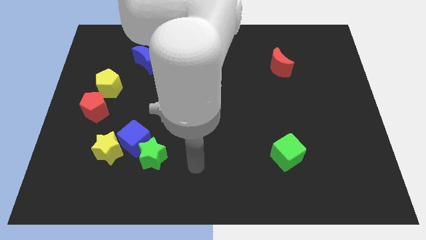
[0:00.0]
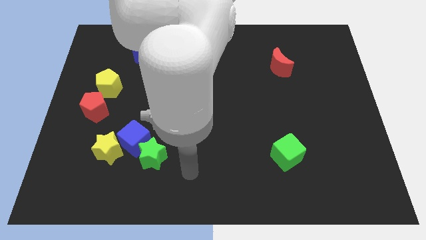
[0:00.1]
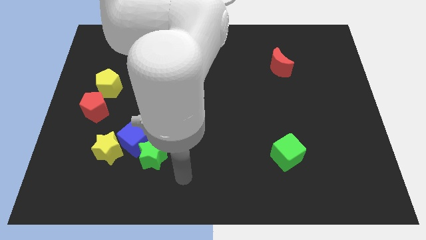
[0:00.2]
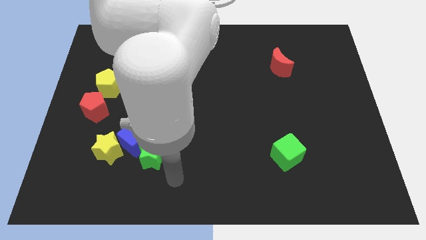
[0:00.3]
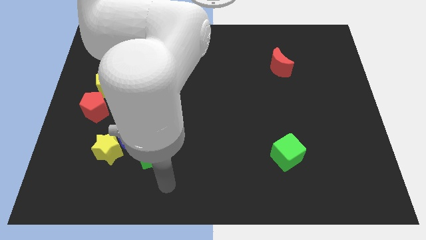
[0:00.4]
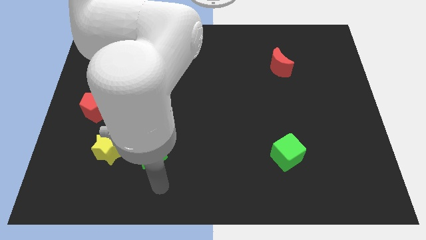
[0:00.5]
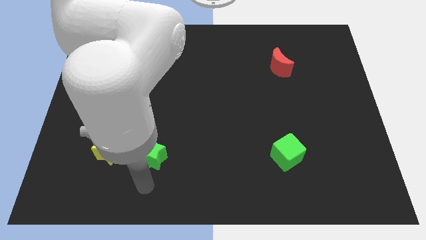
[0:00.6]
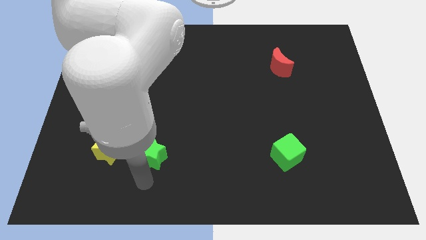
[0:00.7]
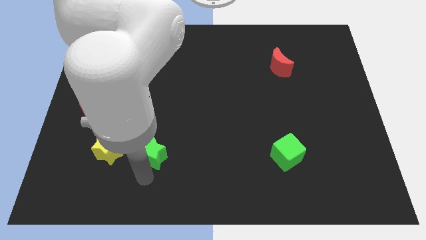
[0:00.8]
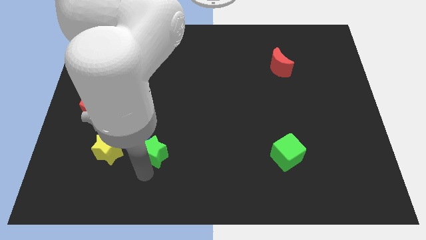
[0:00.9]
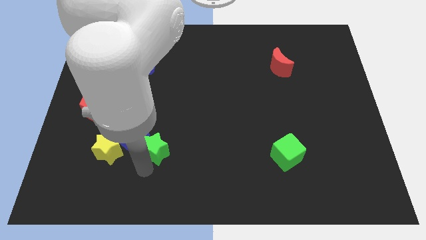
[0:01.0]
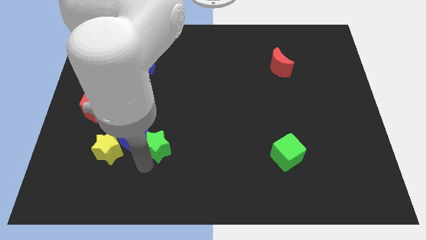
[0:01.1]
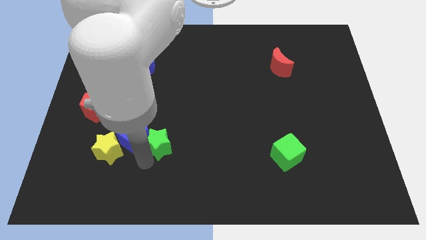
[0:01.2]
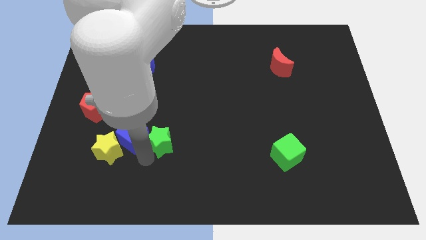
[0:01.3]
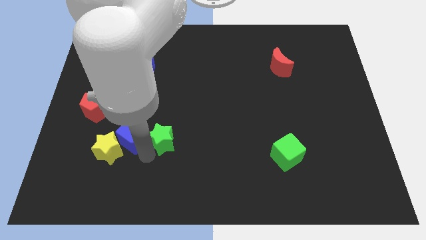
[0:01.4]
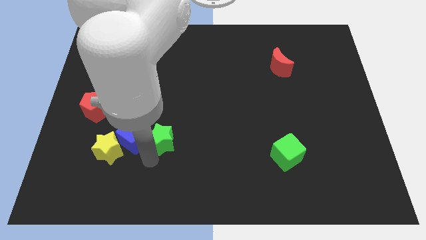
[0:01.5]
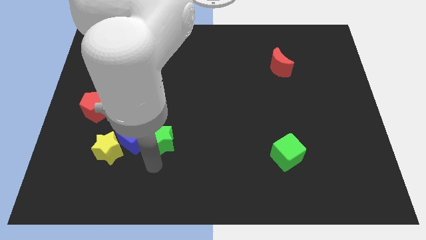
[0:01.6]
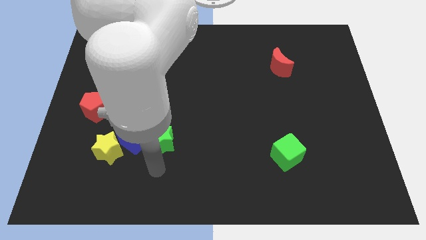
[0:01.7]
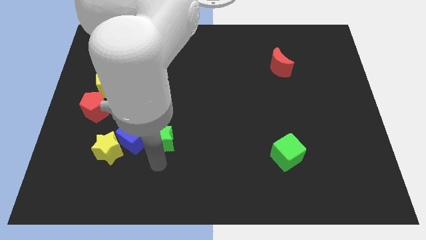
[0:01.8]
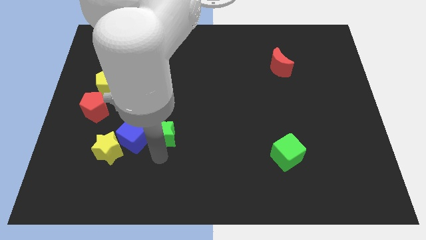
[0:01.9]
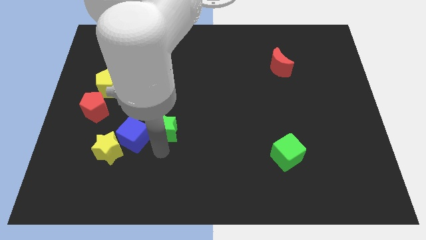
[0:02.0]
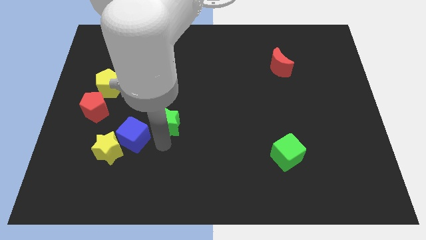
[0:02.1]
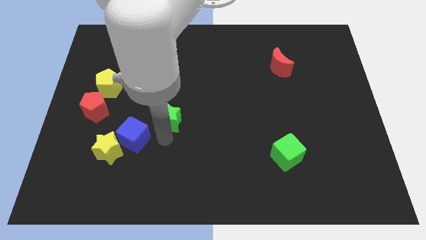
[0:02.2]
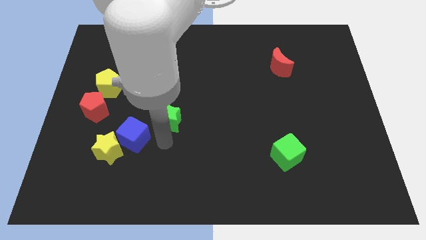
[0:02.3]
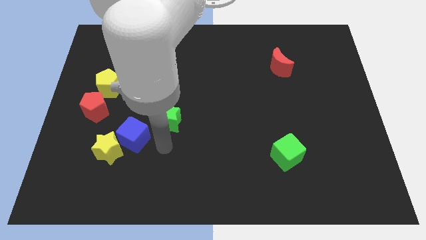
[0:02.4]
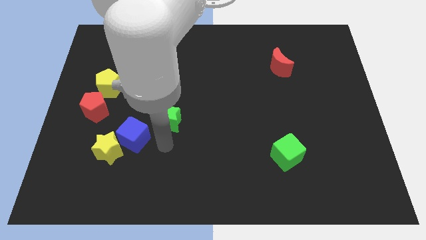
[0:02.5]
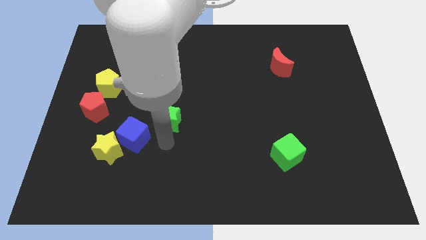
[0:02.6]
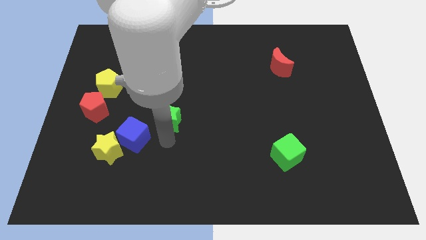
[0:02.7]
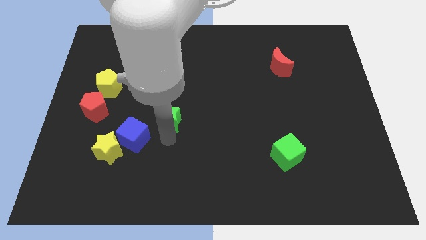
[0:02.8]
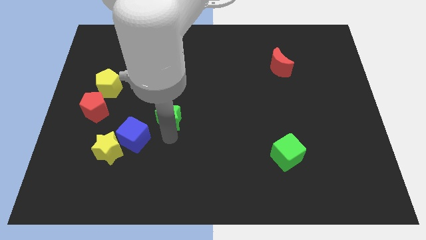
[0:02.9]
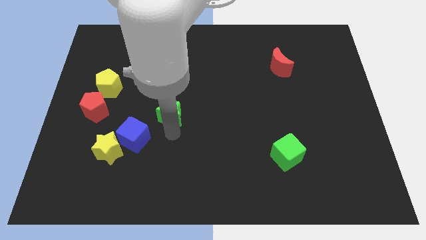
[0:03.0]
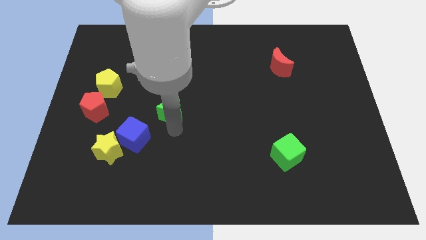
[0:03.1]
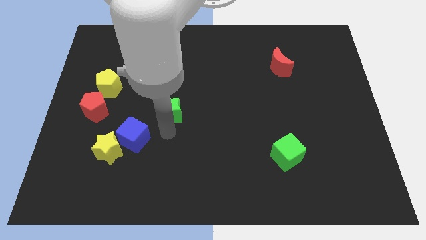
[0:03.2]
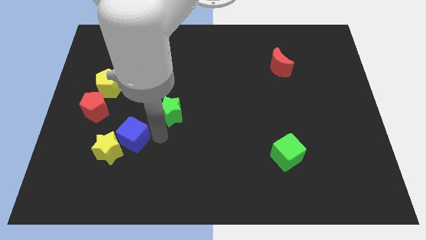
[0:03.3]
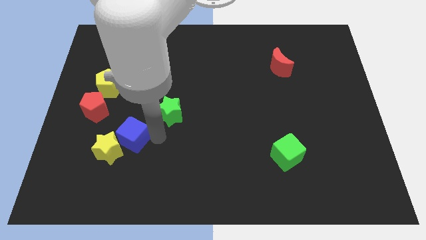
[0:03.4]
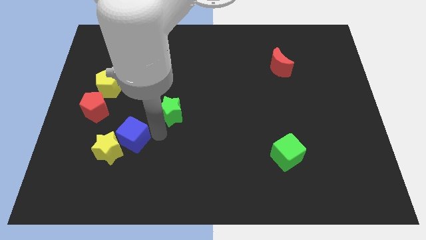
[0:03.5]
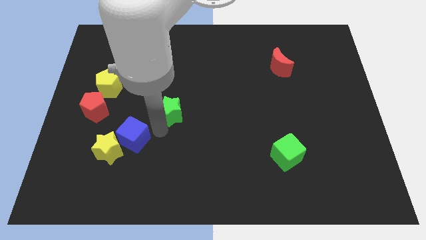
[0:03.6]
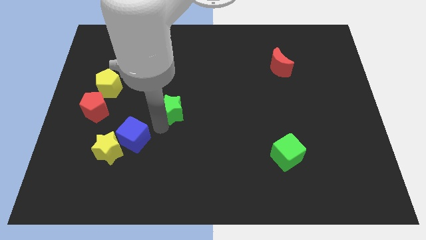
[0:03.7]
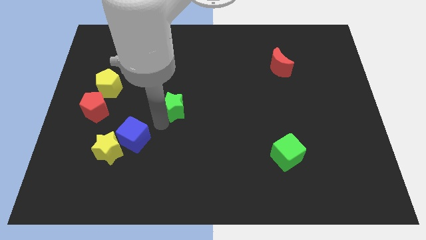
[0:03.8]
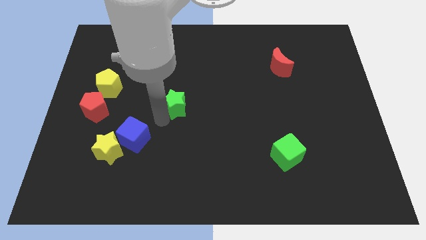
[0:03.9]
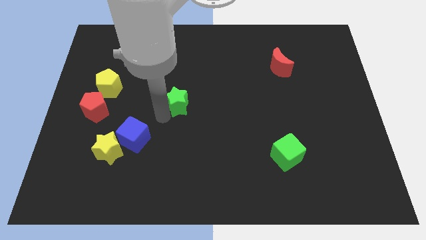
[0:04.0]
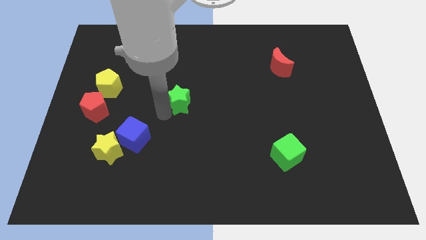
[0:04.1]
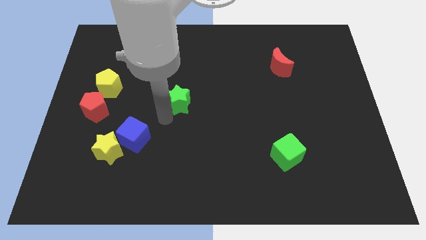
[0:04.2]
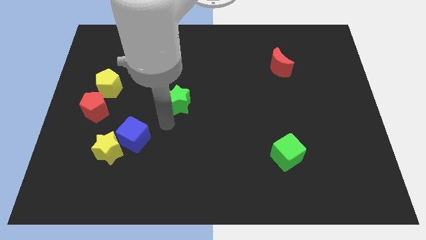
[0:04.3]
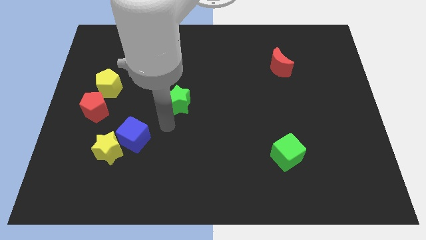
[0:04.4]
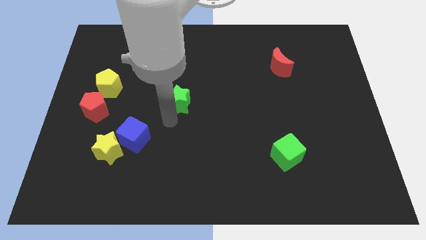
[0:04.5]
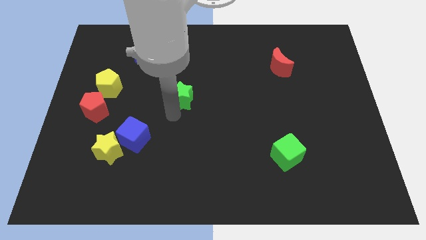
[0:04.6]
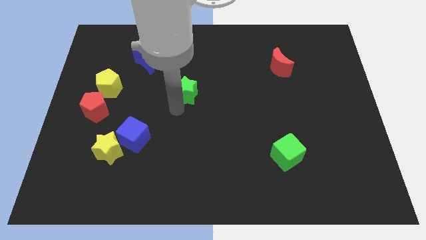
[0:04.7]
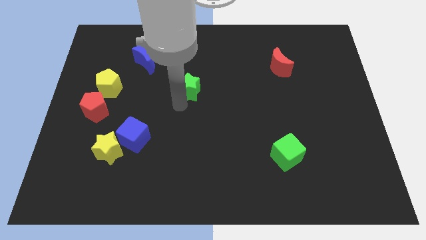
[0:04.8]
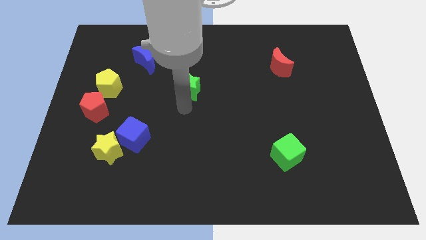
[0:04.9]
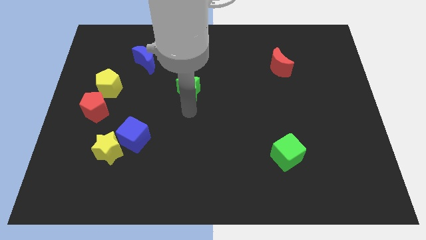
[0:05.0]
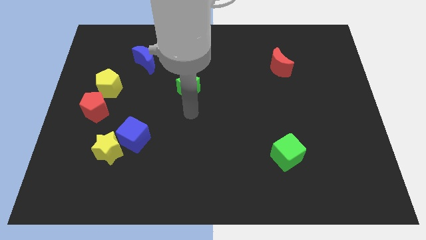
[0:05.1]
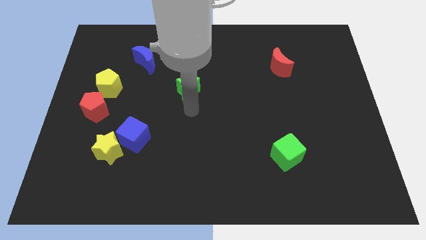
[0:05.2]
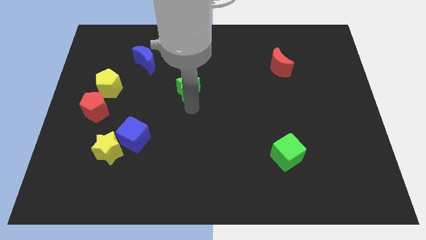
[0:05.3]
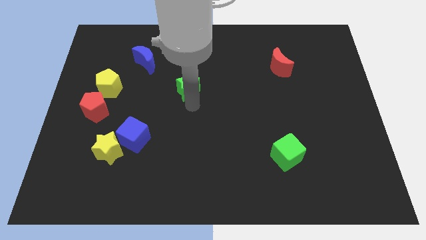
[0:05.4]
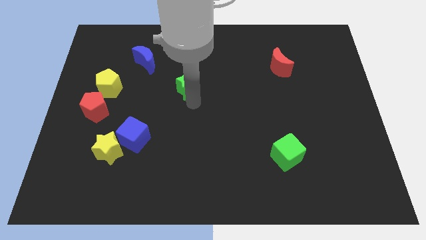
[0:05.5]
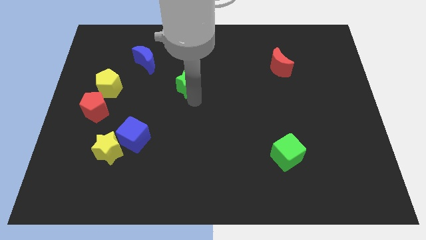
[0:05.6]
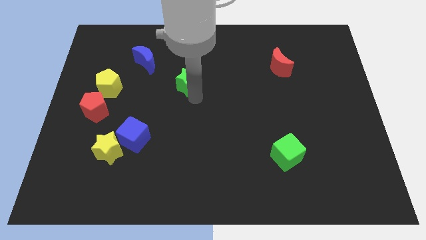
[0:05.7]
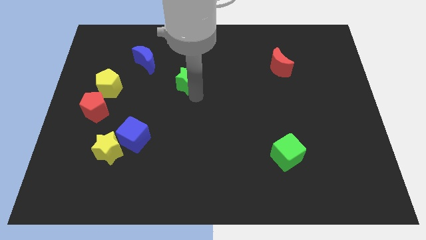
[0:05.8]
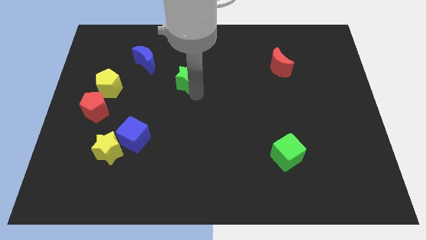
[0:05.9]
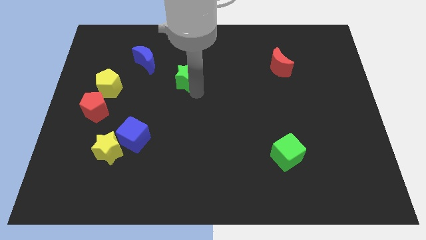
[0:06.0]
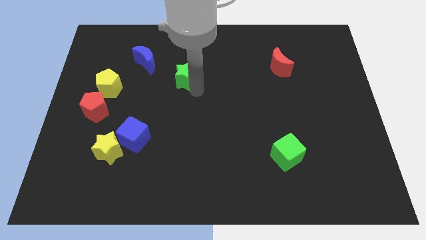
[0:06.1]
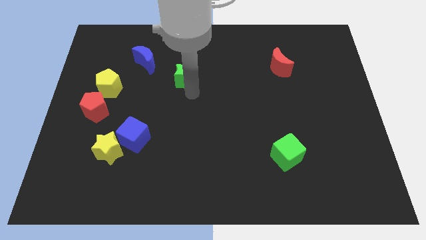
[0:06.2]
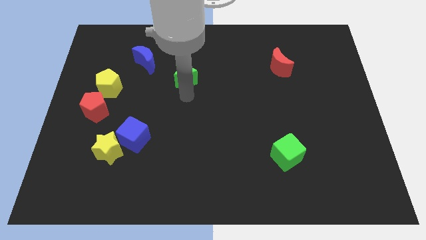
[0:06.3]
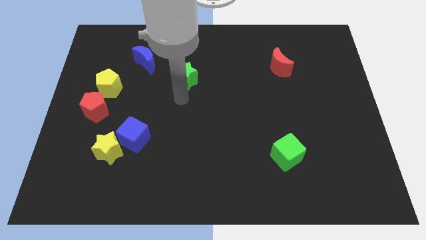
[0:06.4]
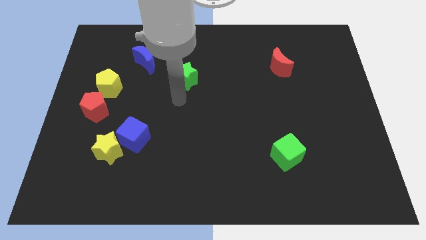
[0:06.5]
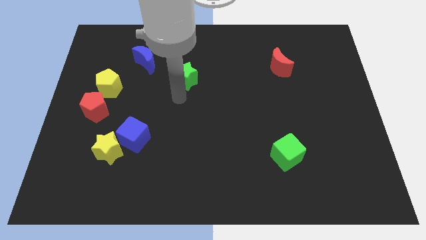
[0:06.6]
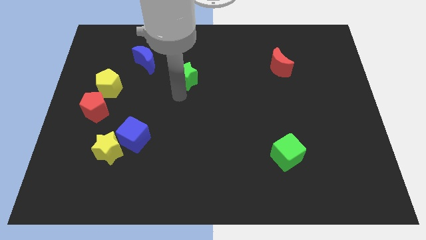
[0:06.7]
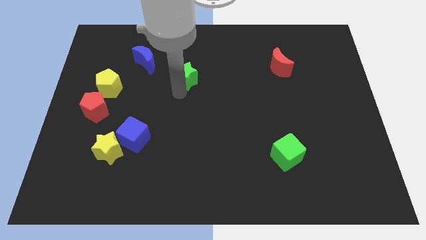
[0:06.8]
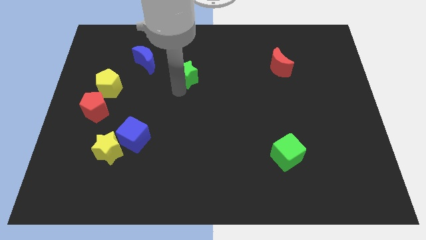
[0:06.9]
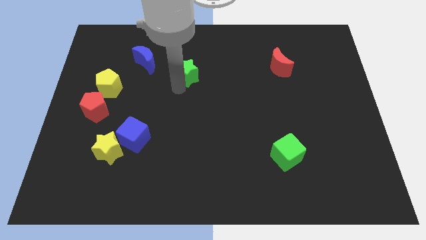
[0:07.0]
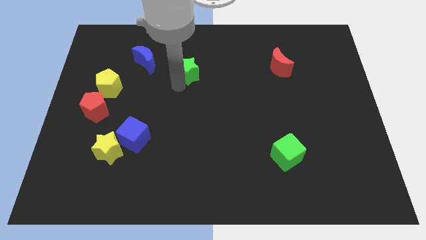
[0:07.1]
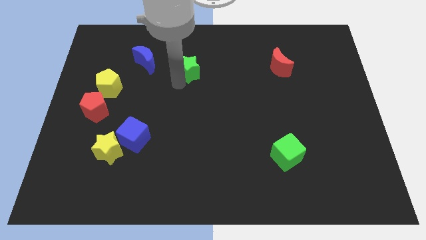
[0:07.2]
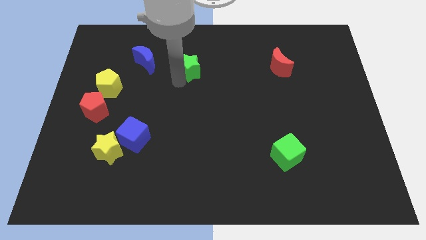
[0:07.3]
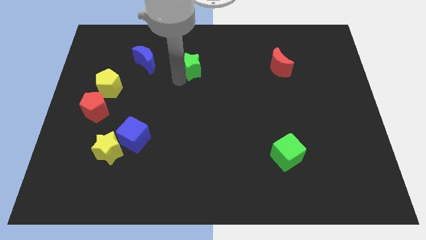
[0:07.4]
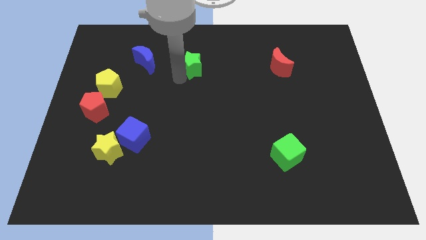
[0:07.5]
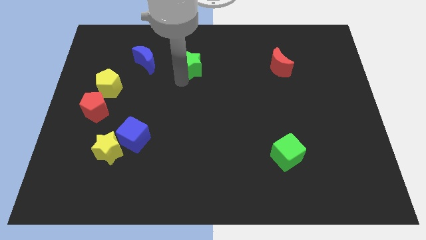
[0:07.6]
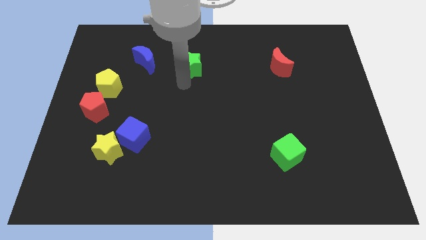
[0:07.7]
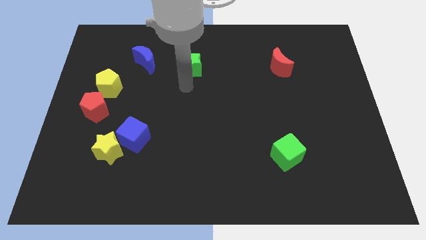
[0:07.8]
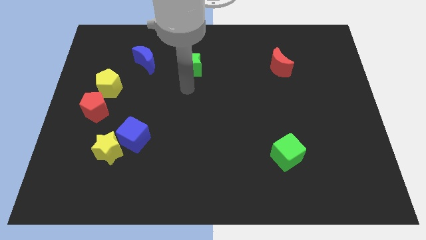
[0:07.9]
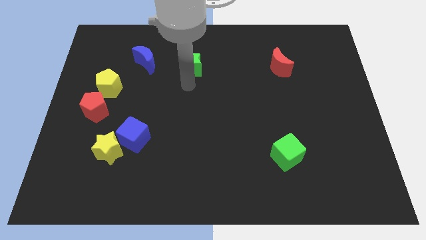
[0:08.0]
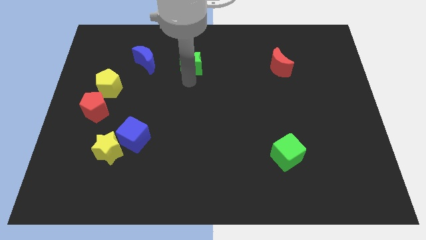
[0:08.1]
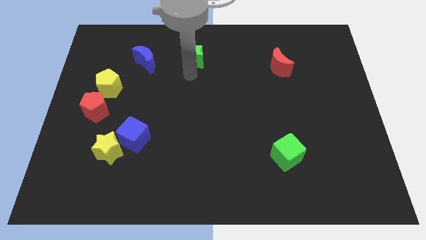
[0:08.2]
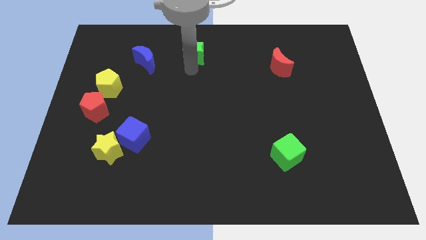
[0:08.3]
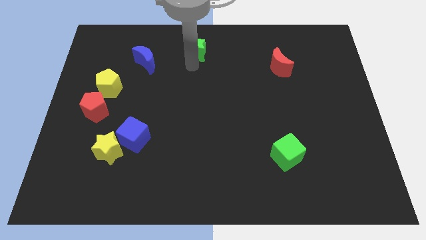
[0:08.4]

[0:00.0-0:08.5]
push the green star to the top side
